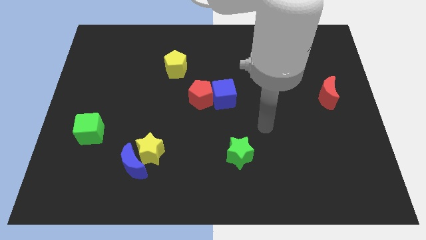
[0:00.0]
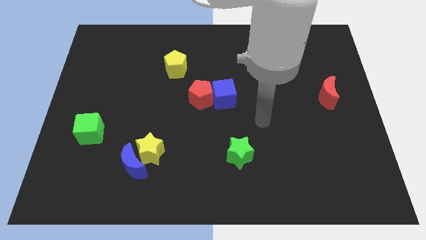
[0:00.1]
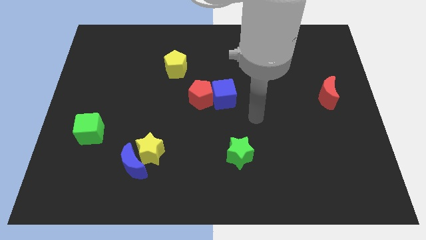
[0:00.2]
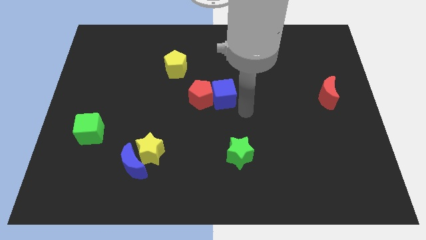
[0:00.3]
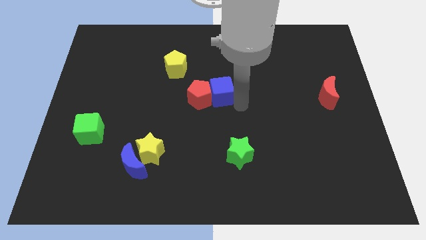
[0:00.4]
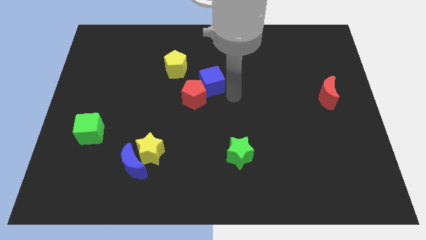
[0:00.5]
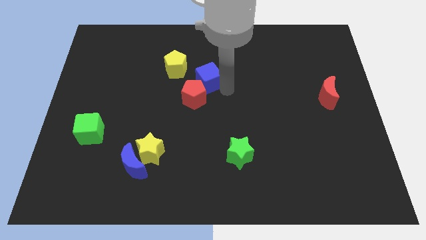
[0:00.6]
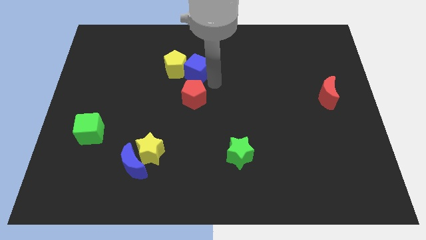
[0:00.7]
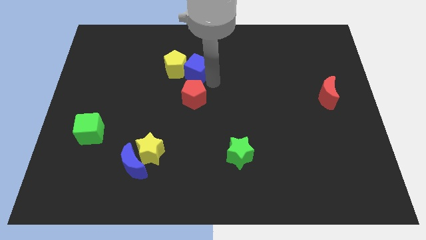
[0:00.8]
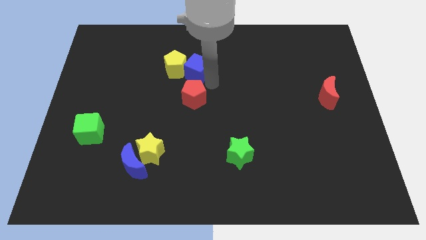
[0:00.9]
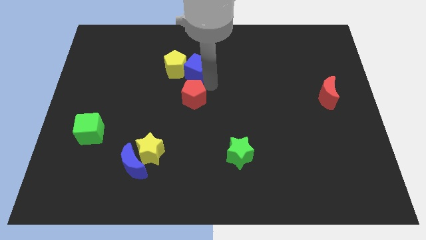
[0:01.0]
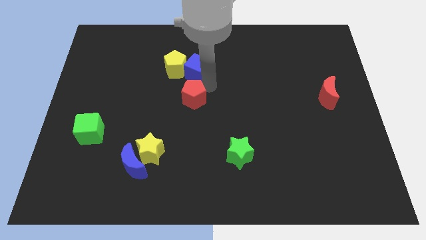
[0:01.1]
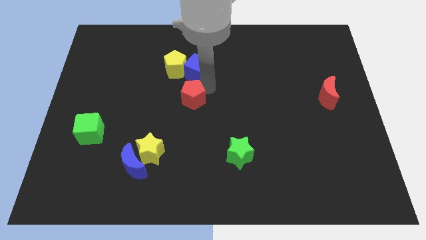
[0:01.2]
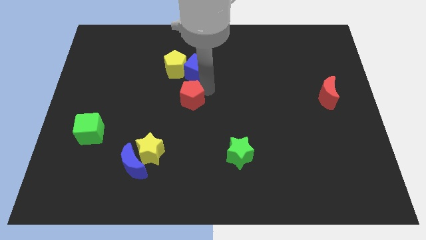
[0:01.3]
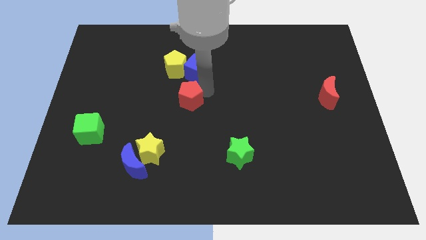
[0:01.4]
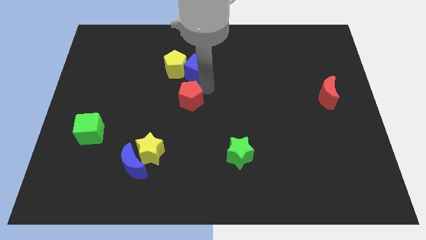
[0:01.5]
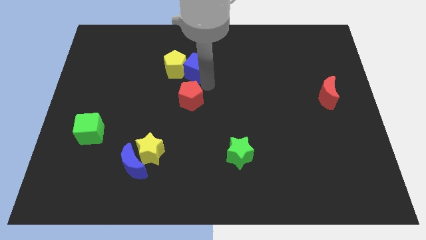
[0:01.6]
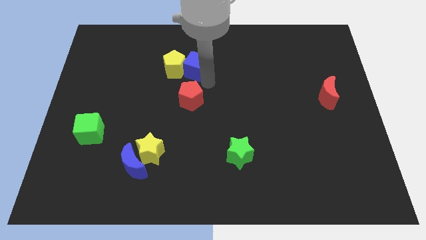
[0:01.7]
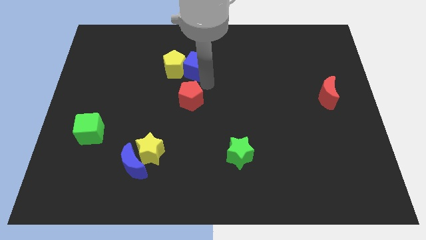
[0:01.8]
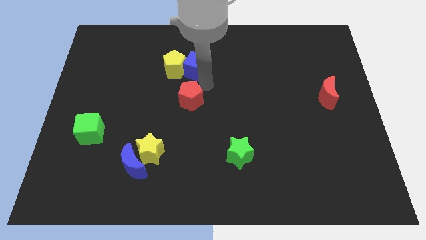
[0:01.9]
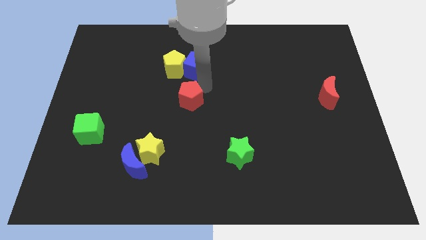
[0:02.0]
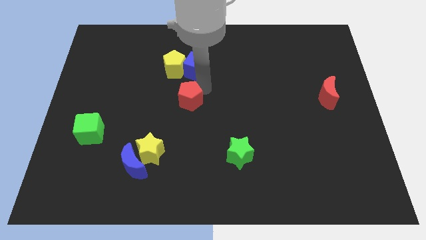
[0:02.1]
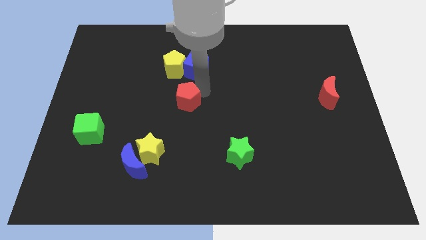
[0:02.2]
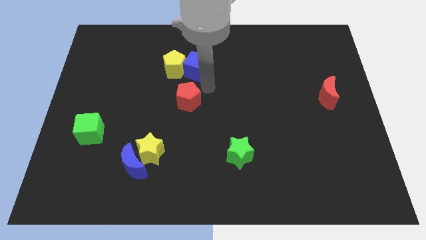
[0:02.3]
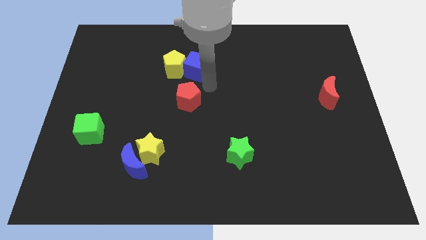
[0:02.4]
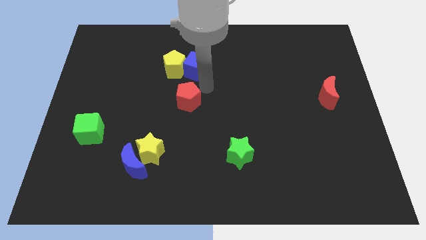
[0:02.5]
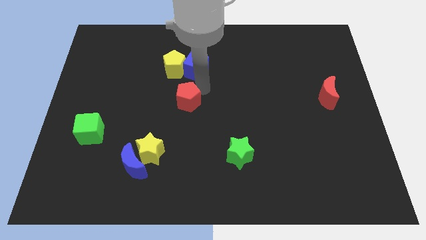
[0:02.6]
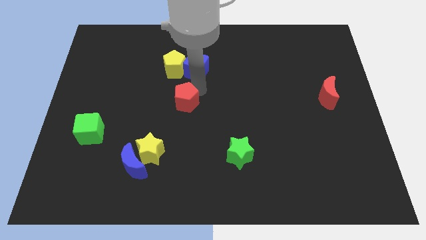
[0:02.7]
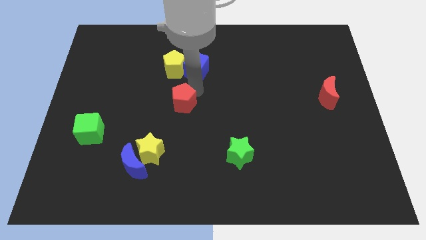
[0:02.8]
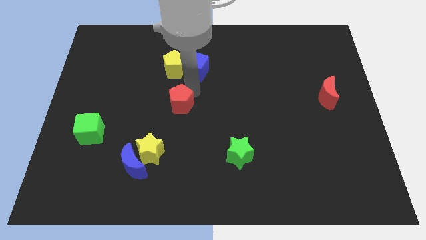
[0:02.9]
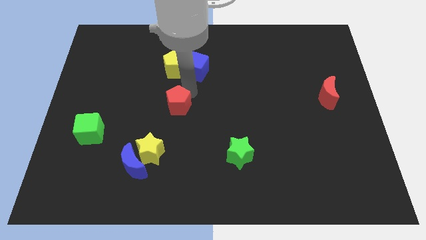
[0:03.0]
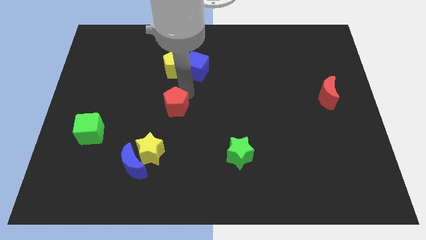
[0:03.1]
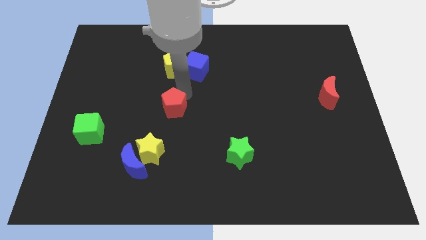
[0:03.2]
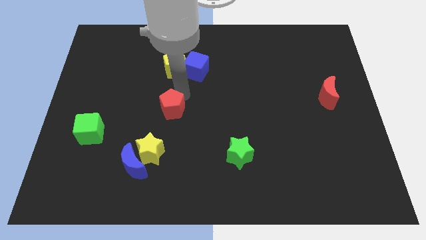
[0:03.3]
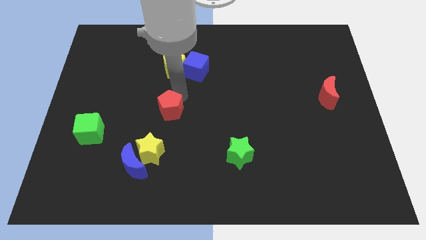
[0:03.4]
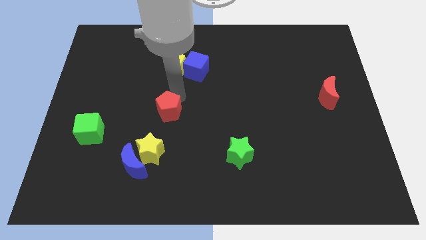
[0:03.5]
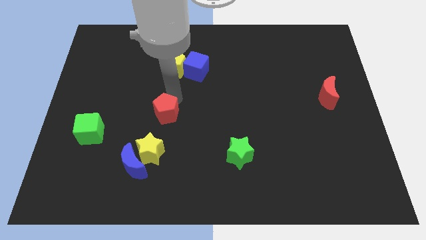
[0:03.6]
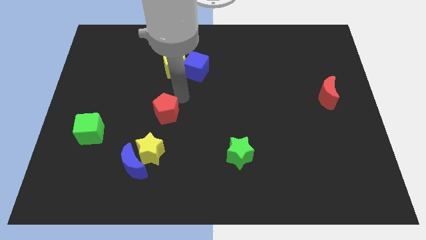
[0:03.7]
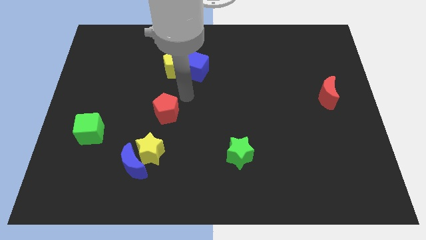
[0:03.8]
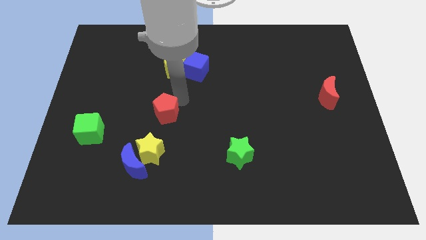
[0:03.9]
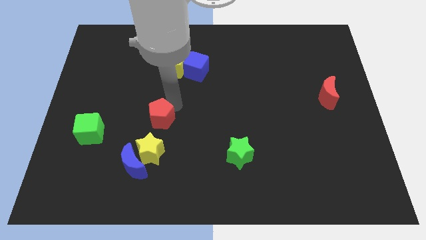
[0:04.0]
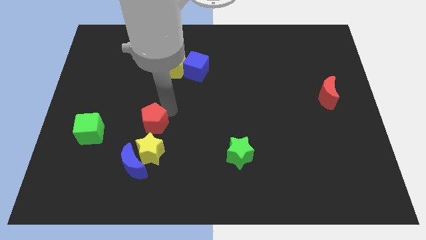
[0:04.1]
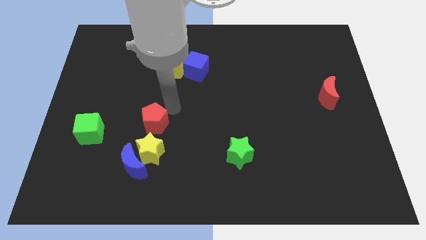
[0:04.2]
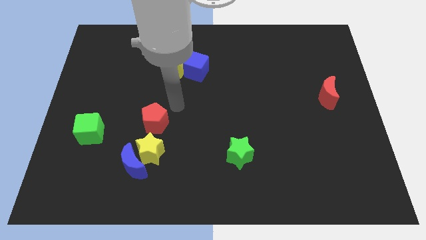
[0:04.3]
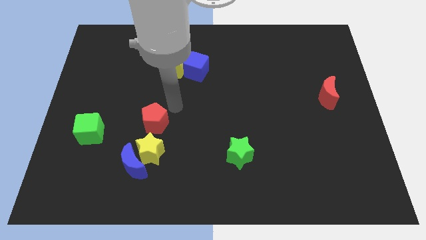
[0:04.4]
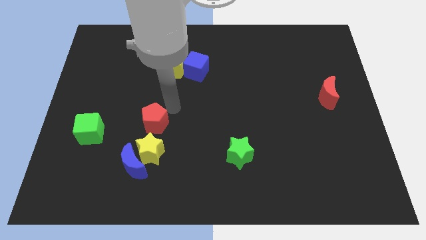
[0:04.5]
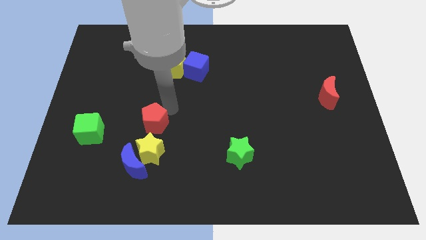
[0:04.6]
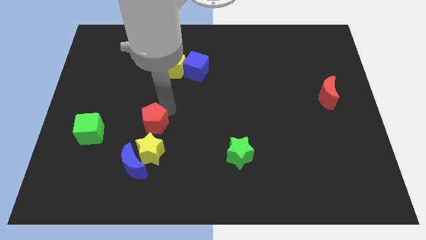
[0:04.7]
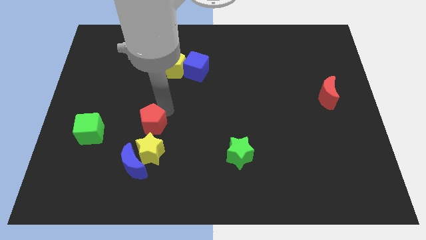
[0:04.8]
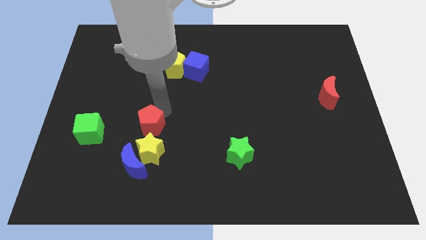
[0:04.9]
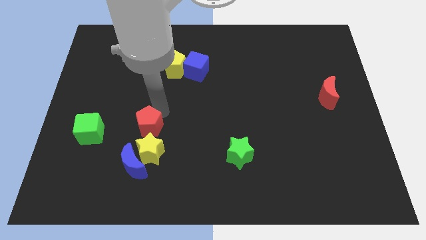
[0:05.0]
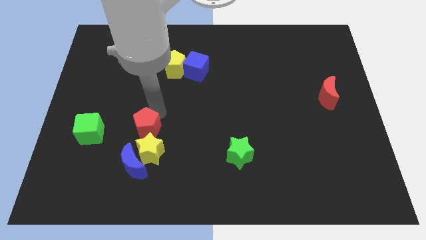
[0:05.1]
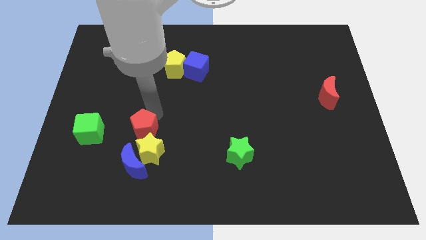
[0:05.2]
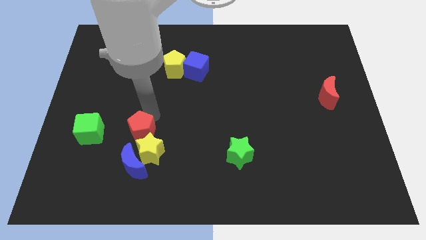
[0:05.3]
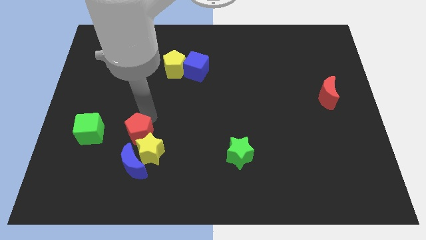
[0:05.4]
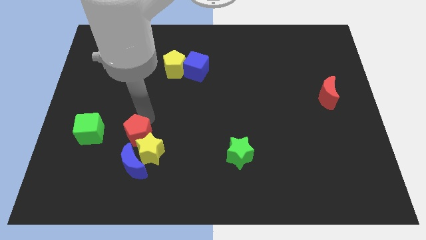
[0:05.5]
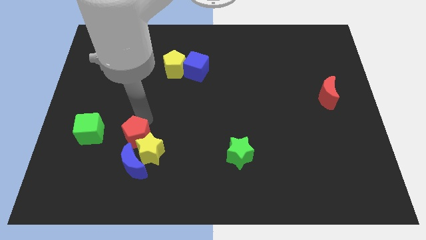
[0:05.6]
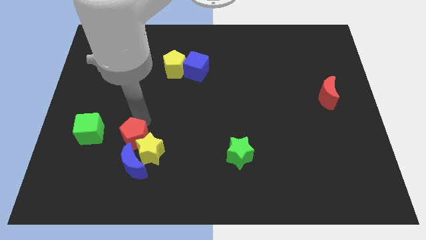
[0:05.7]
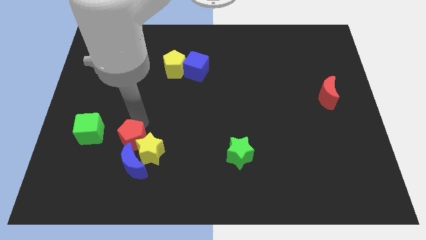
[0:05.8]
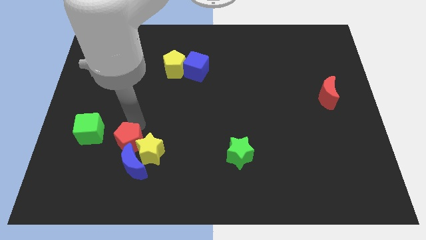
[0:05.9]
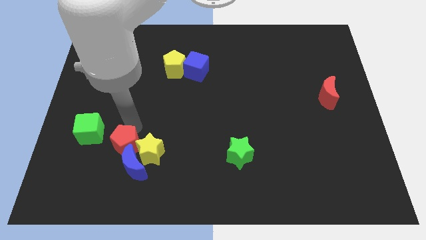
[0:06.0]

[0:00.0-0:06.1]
put the red pentagon towards the blue moon

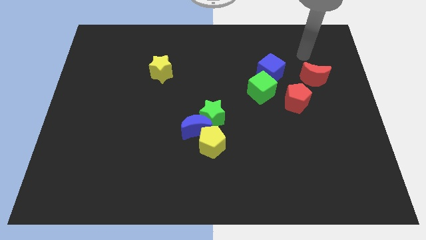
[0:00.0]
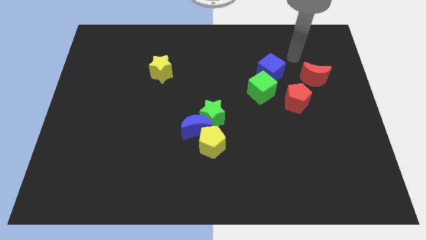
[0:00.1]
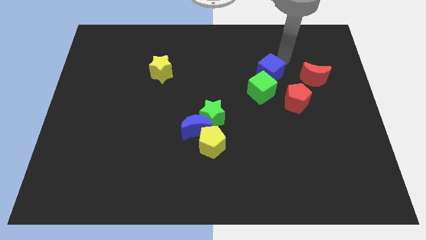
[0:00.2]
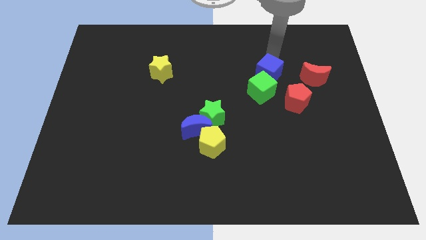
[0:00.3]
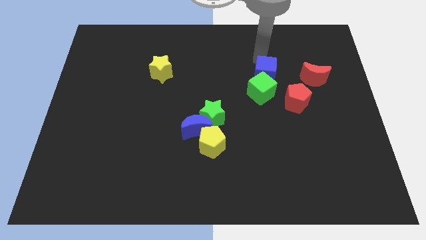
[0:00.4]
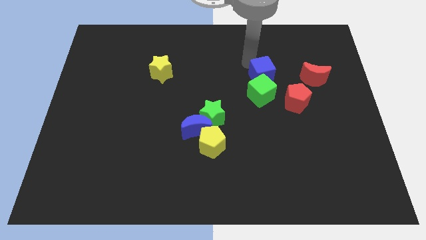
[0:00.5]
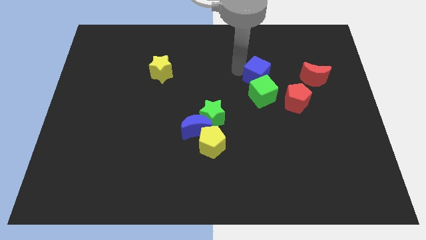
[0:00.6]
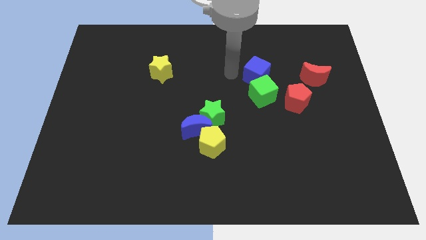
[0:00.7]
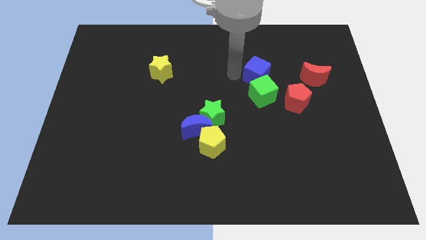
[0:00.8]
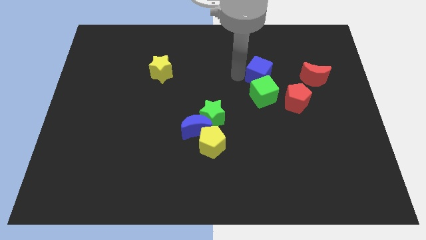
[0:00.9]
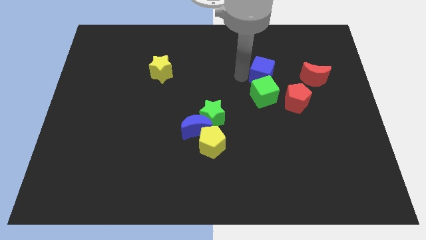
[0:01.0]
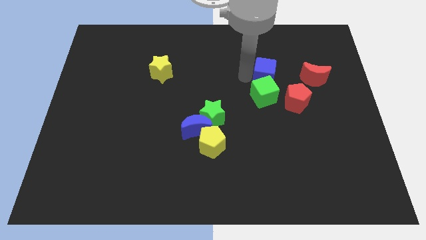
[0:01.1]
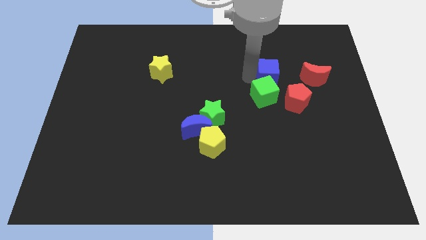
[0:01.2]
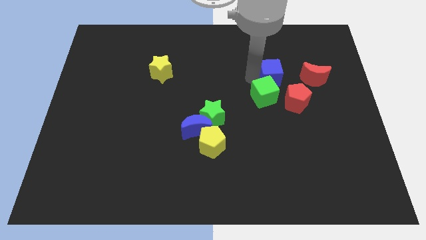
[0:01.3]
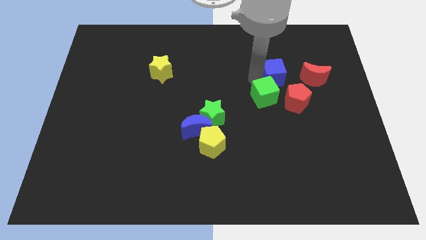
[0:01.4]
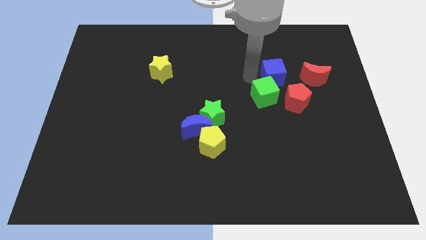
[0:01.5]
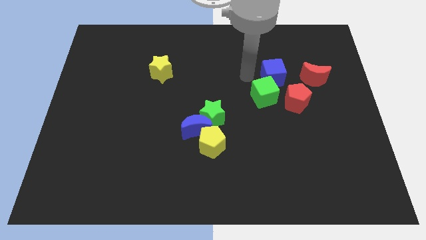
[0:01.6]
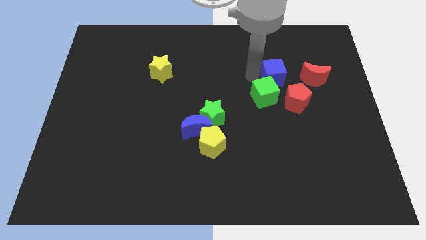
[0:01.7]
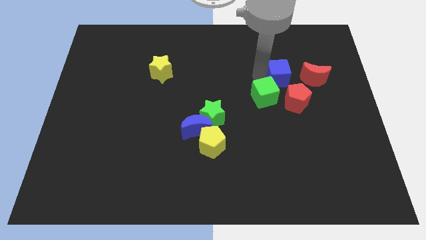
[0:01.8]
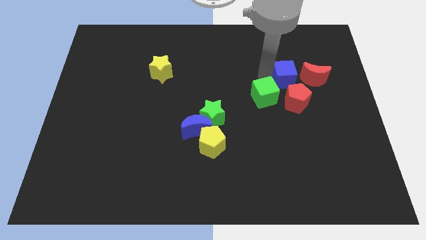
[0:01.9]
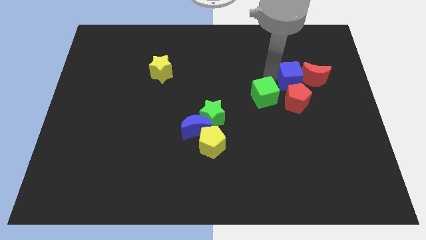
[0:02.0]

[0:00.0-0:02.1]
slide the blue cube to the red moon
